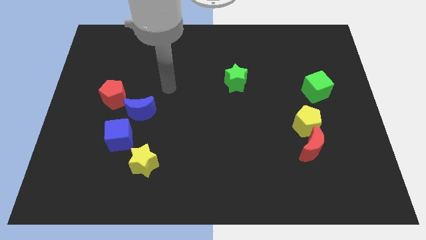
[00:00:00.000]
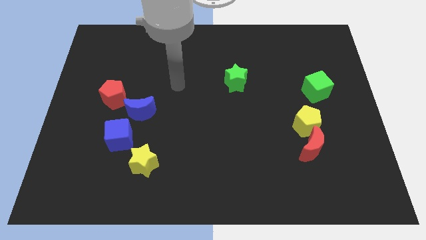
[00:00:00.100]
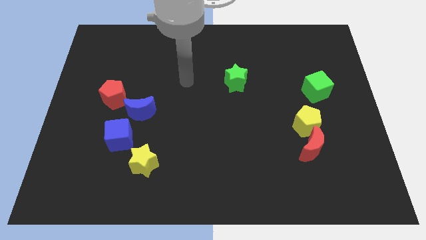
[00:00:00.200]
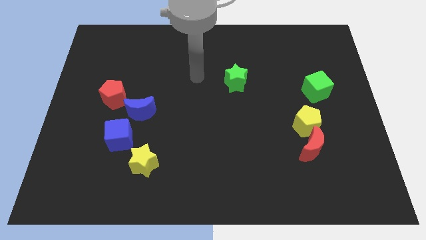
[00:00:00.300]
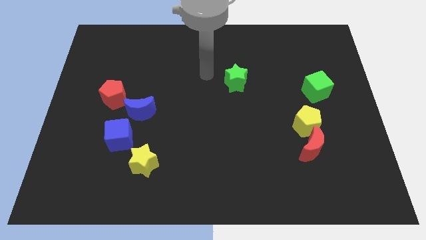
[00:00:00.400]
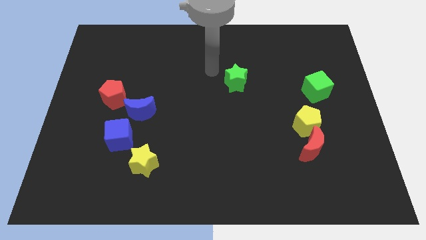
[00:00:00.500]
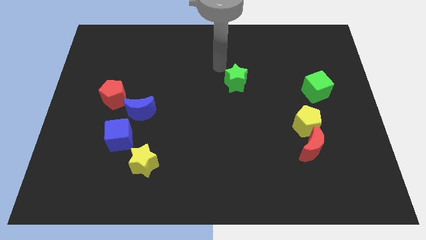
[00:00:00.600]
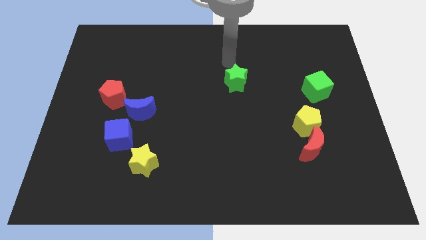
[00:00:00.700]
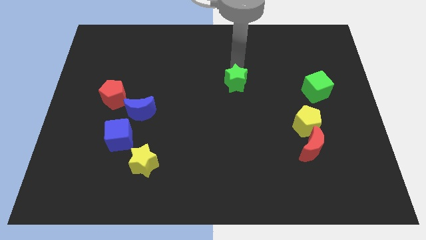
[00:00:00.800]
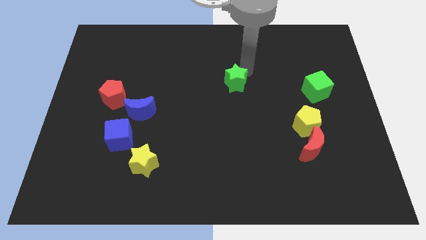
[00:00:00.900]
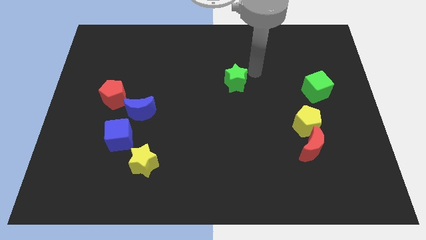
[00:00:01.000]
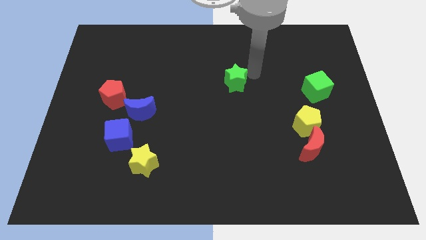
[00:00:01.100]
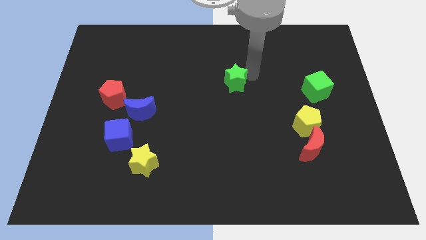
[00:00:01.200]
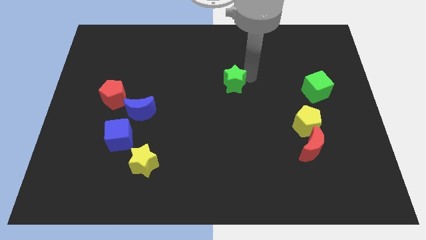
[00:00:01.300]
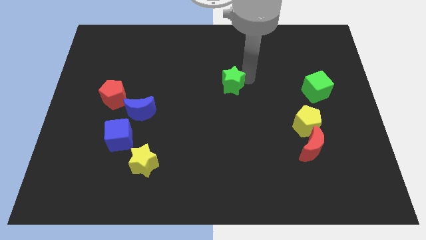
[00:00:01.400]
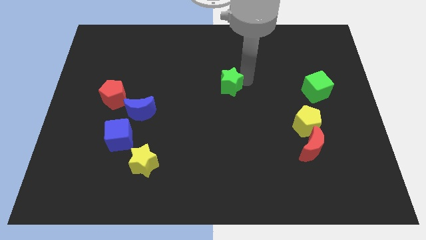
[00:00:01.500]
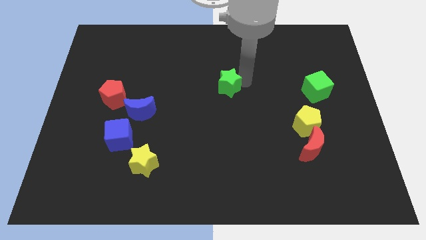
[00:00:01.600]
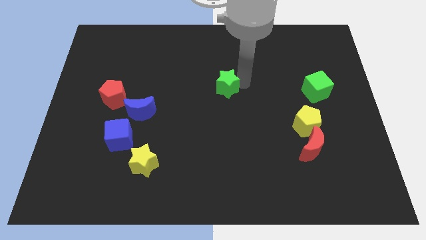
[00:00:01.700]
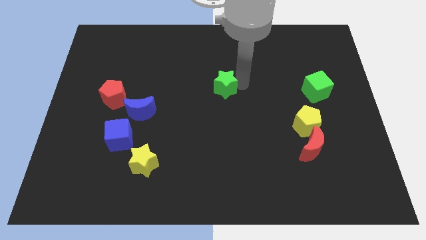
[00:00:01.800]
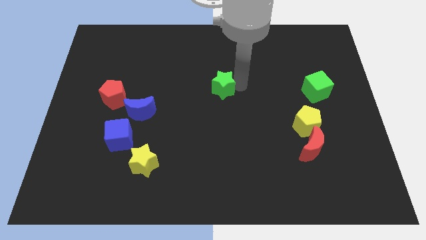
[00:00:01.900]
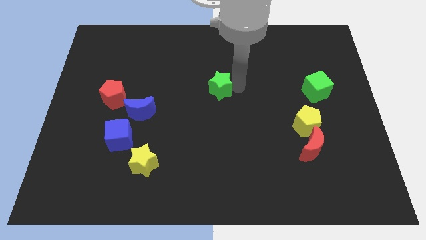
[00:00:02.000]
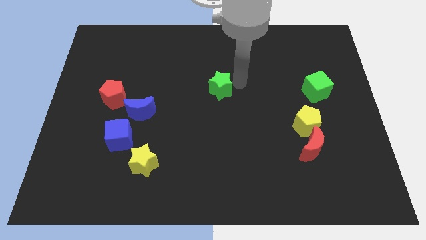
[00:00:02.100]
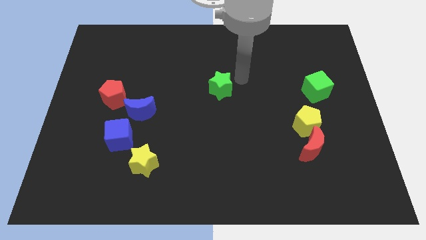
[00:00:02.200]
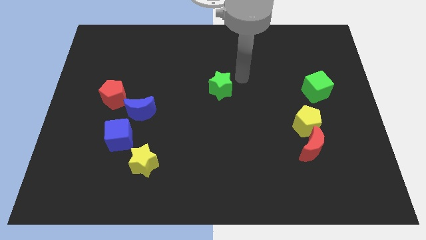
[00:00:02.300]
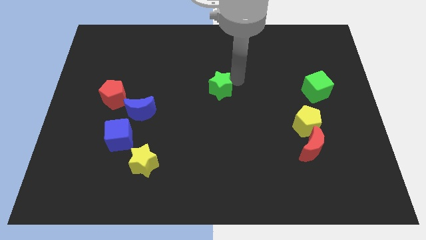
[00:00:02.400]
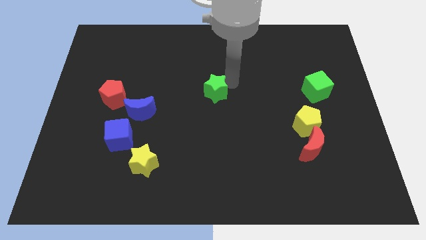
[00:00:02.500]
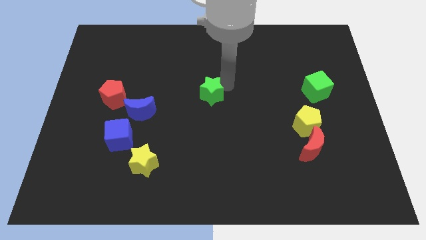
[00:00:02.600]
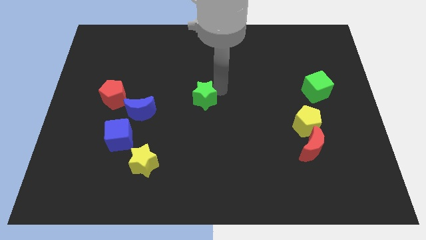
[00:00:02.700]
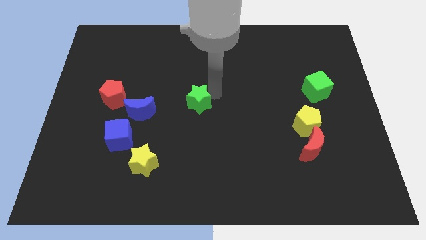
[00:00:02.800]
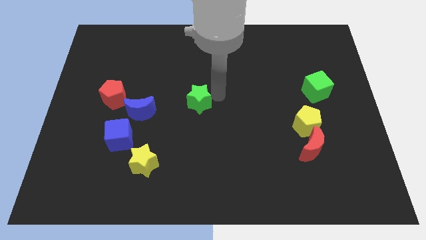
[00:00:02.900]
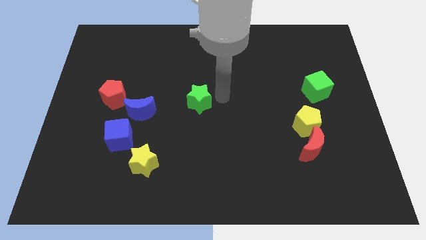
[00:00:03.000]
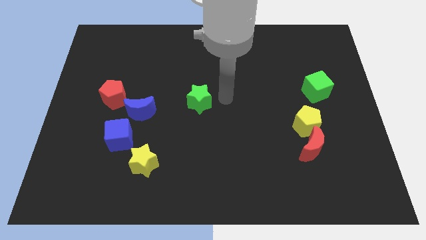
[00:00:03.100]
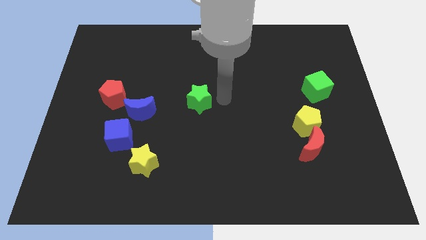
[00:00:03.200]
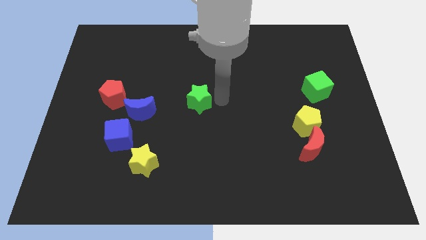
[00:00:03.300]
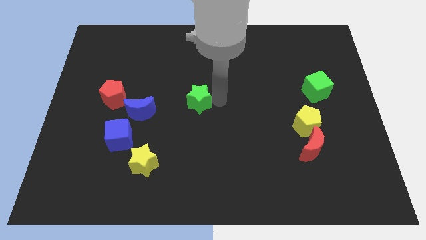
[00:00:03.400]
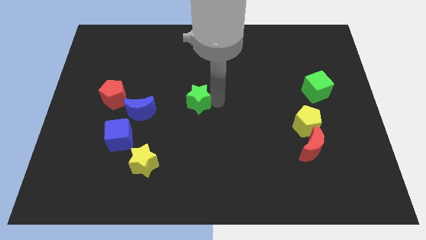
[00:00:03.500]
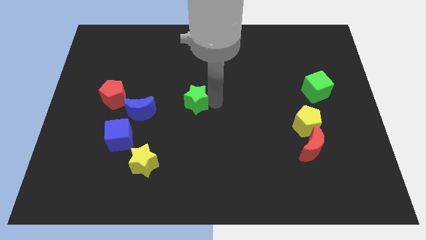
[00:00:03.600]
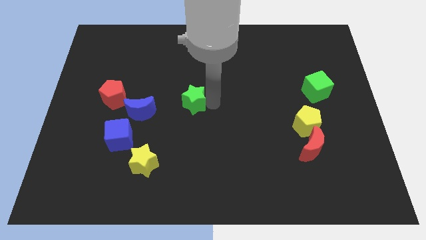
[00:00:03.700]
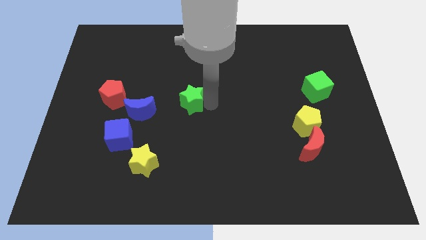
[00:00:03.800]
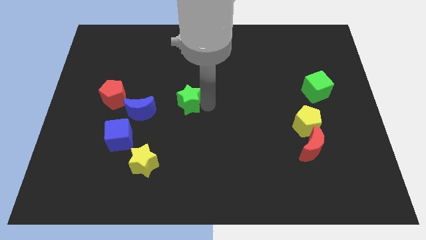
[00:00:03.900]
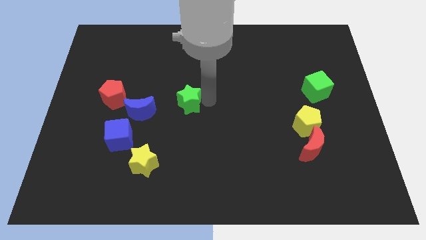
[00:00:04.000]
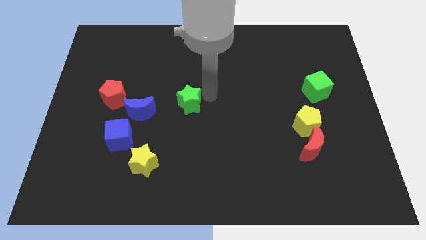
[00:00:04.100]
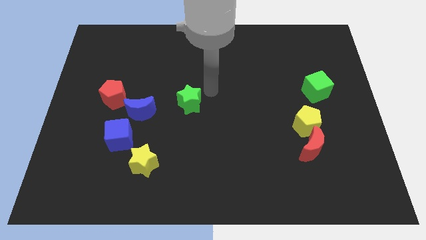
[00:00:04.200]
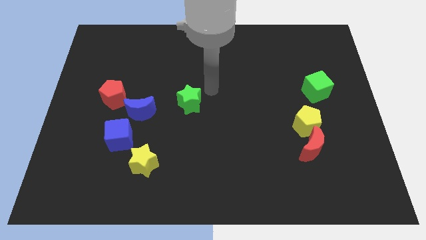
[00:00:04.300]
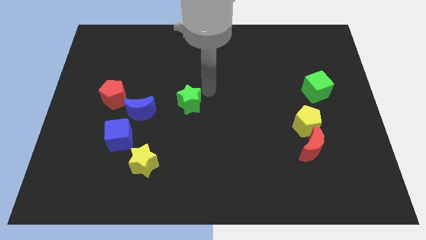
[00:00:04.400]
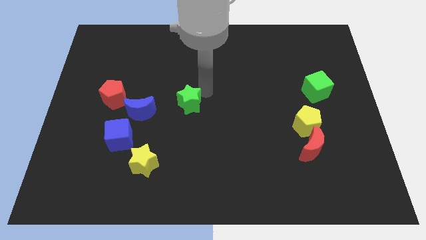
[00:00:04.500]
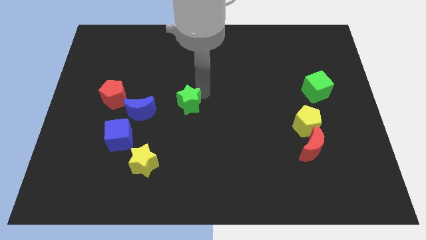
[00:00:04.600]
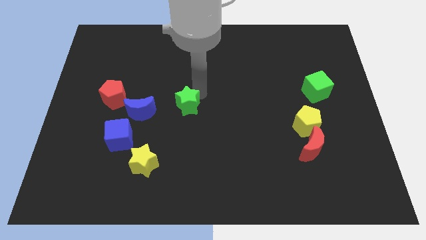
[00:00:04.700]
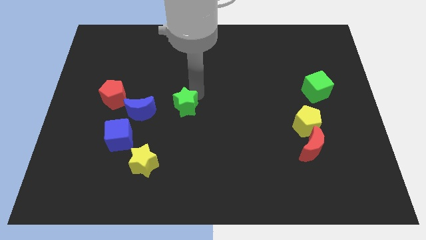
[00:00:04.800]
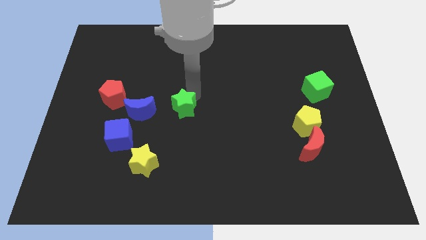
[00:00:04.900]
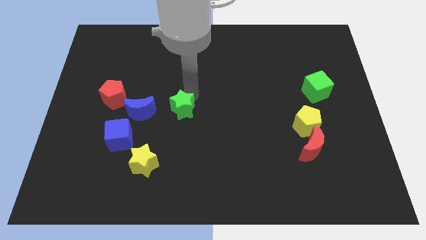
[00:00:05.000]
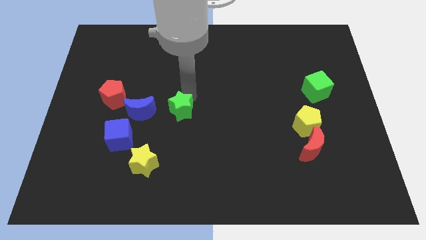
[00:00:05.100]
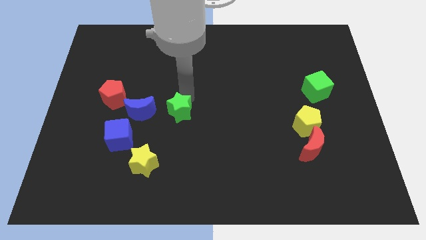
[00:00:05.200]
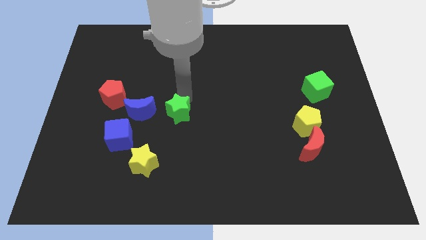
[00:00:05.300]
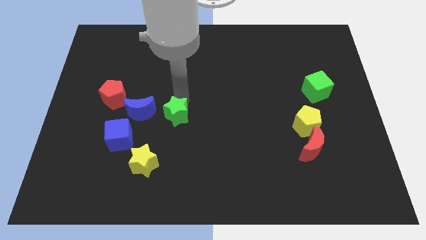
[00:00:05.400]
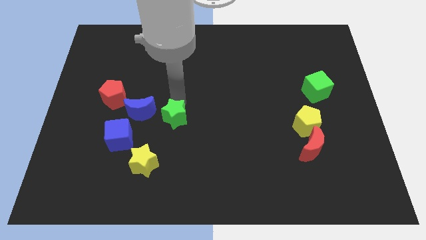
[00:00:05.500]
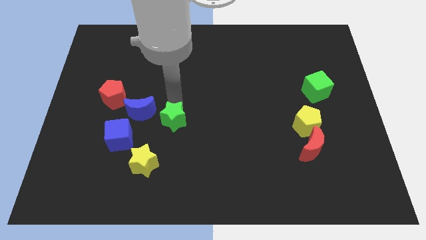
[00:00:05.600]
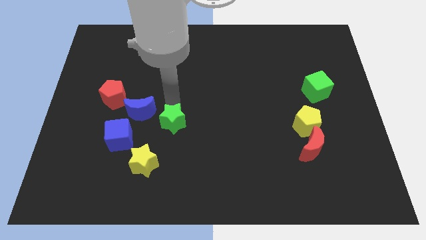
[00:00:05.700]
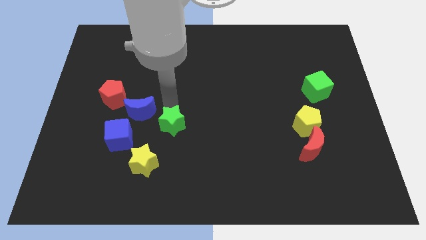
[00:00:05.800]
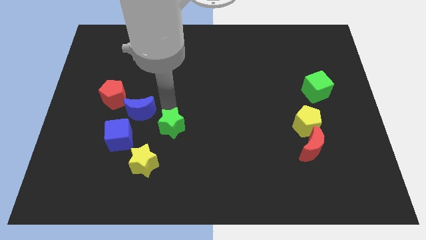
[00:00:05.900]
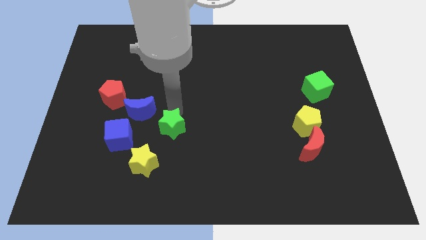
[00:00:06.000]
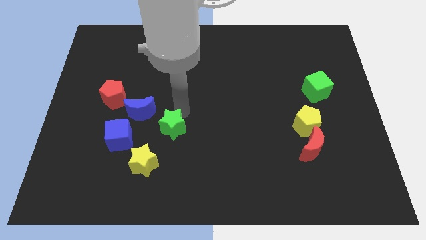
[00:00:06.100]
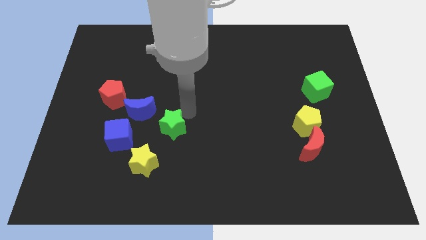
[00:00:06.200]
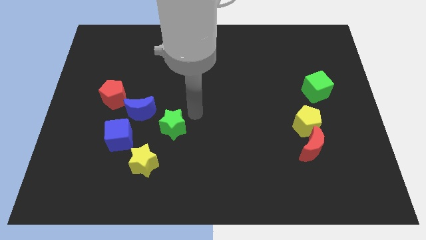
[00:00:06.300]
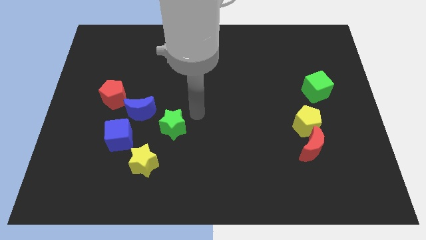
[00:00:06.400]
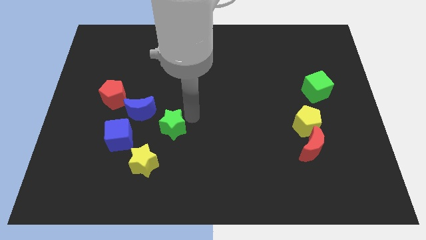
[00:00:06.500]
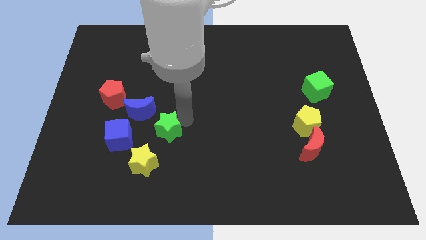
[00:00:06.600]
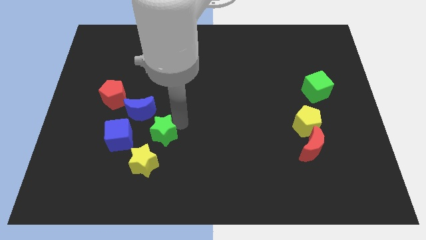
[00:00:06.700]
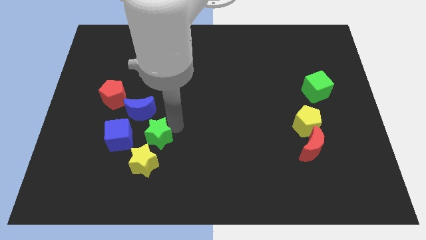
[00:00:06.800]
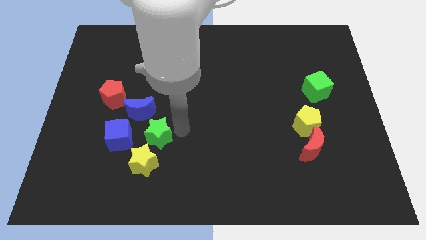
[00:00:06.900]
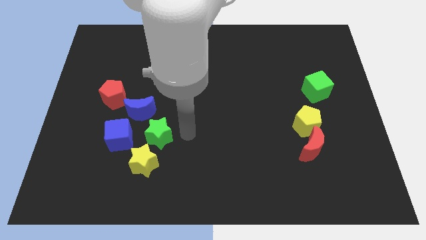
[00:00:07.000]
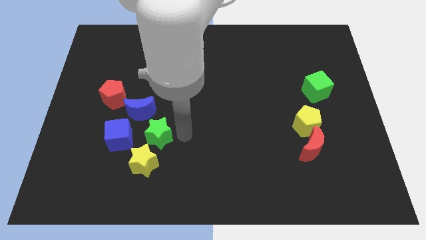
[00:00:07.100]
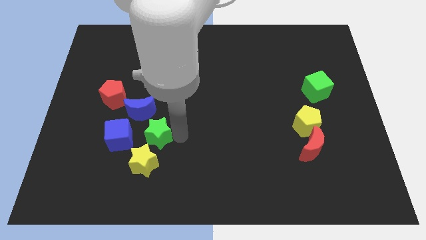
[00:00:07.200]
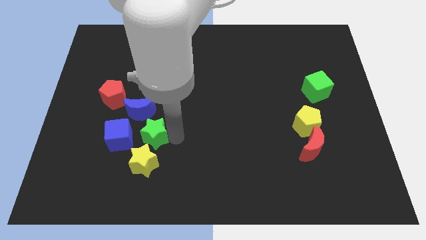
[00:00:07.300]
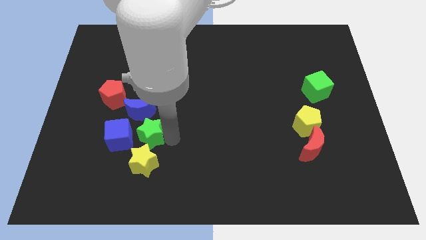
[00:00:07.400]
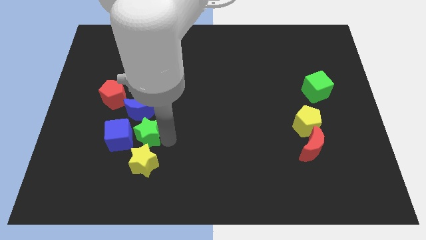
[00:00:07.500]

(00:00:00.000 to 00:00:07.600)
push the green star to the blue cube
